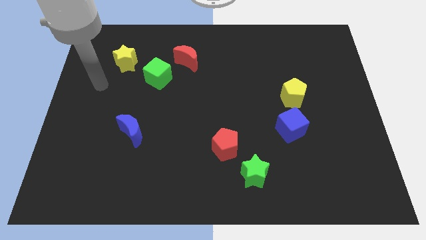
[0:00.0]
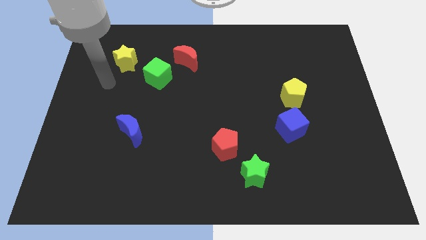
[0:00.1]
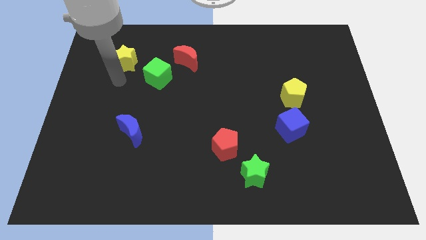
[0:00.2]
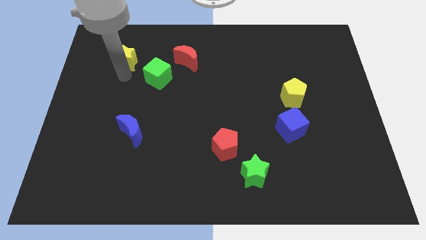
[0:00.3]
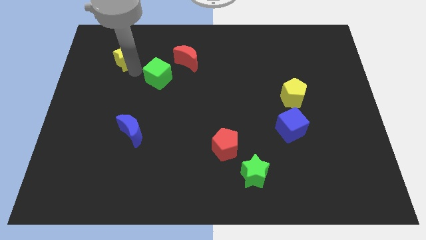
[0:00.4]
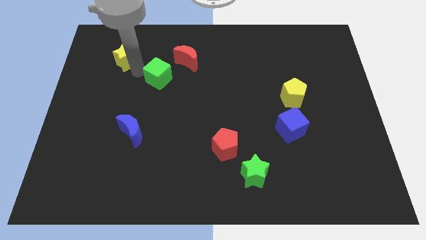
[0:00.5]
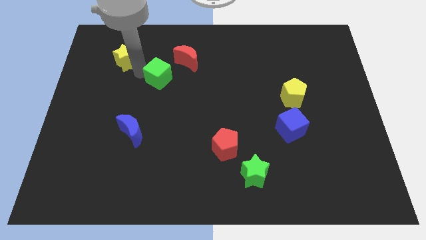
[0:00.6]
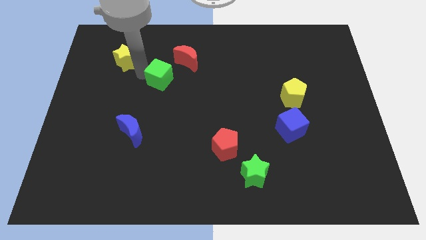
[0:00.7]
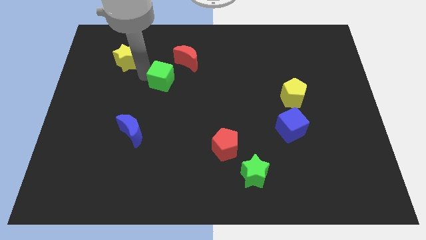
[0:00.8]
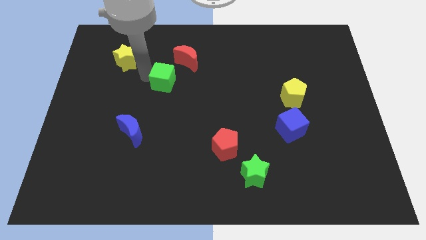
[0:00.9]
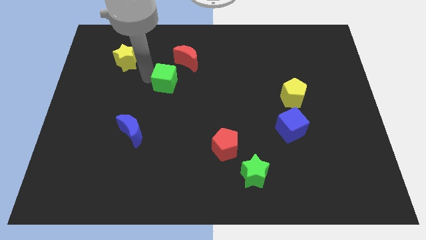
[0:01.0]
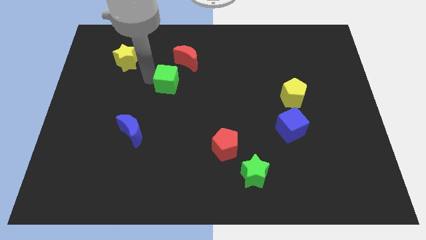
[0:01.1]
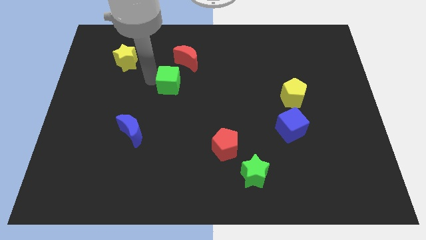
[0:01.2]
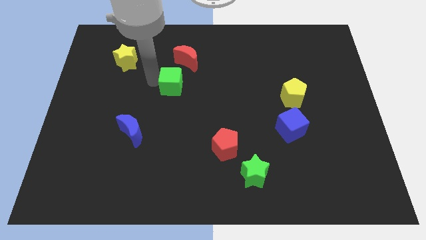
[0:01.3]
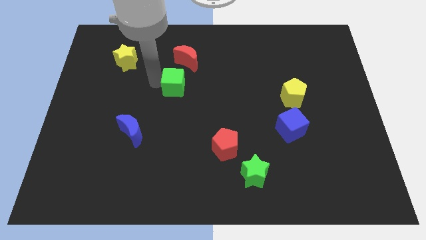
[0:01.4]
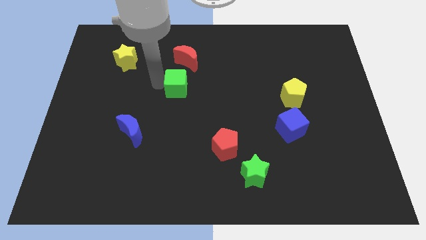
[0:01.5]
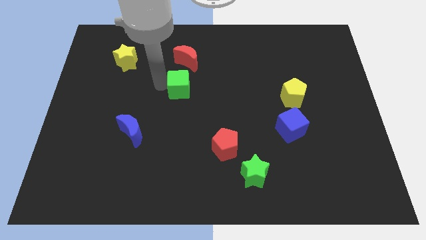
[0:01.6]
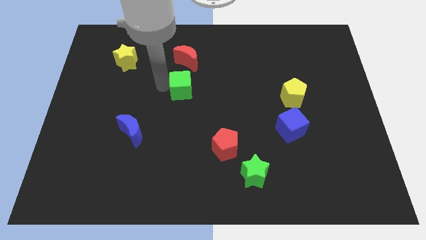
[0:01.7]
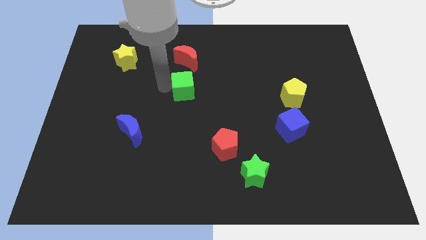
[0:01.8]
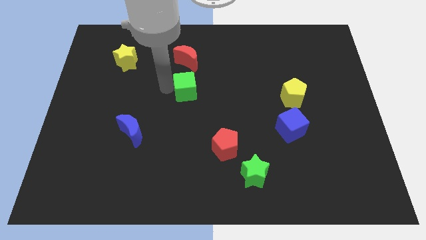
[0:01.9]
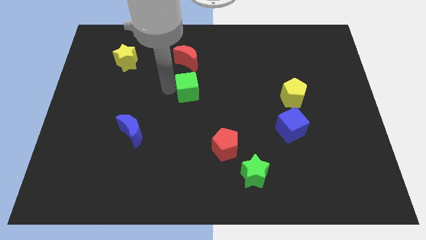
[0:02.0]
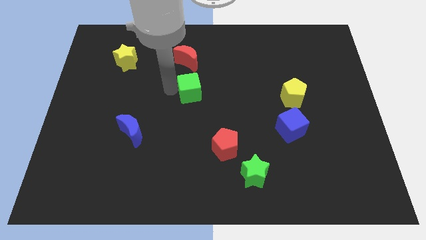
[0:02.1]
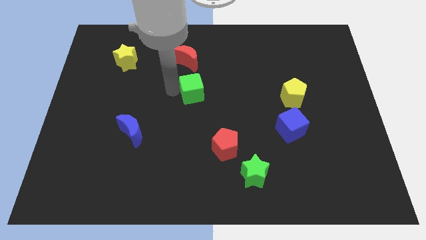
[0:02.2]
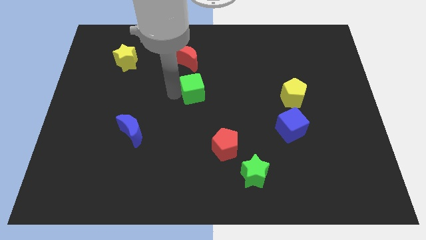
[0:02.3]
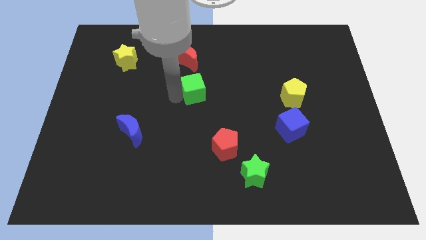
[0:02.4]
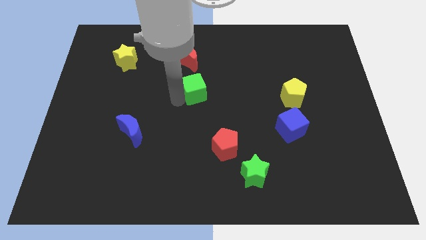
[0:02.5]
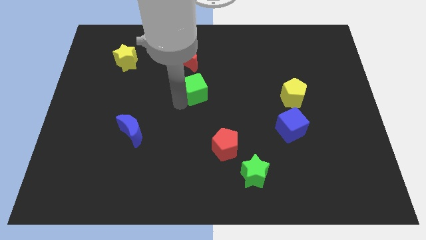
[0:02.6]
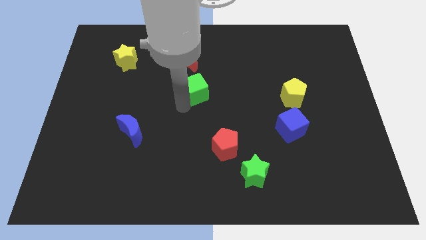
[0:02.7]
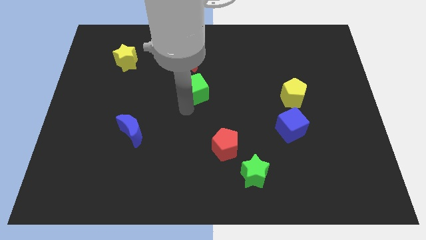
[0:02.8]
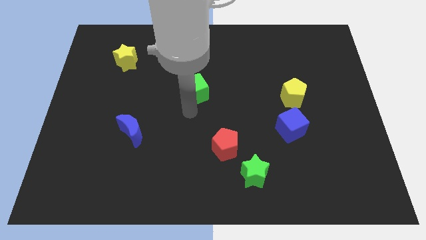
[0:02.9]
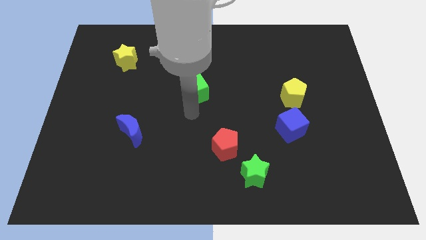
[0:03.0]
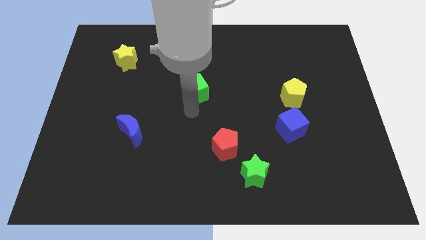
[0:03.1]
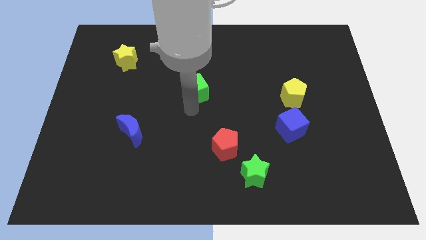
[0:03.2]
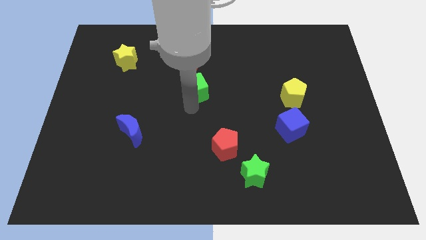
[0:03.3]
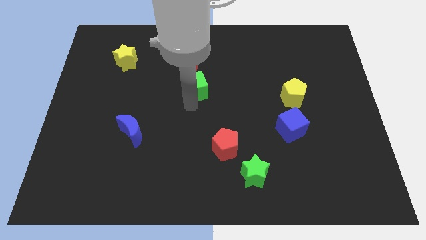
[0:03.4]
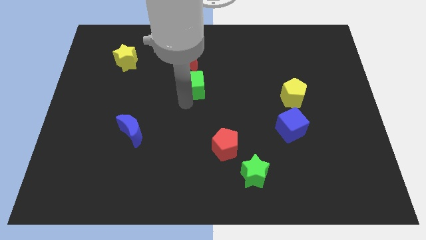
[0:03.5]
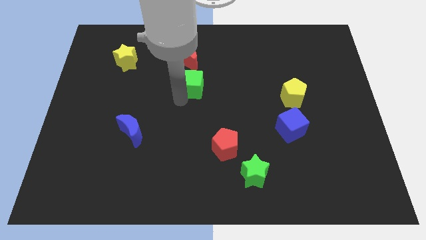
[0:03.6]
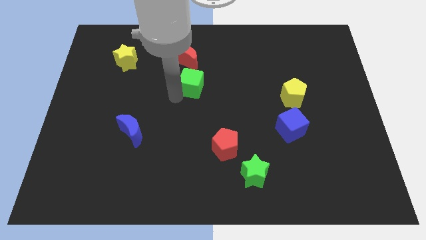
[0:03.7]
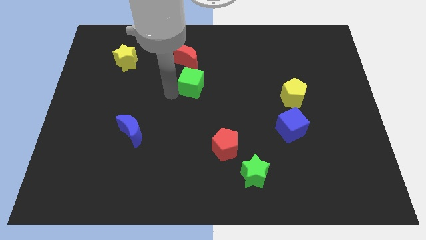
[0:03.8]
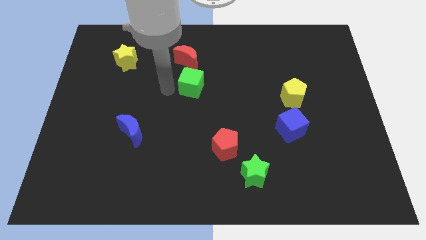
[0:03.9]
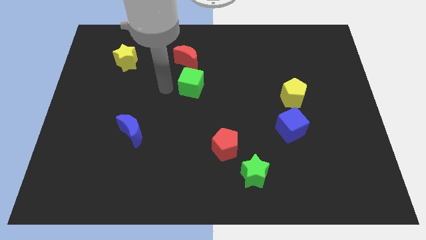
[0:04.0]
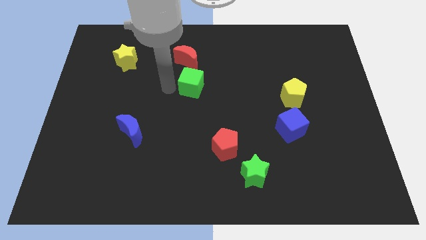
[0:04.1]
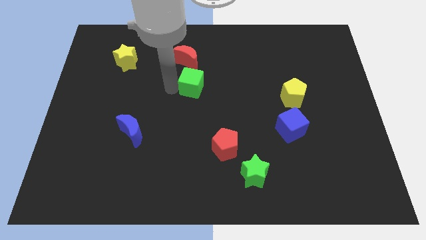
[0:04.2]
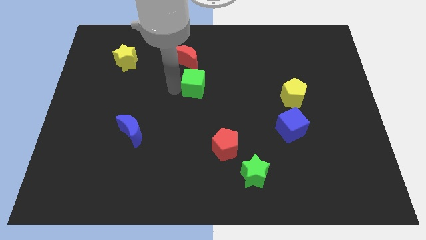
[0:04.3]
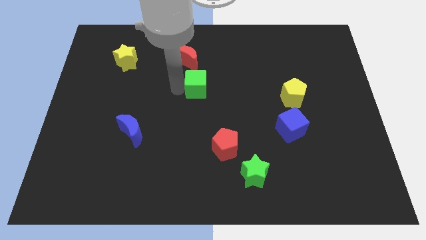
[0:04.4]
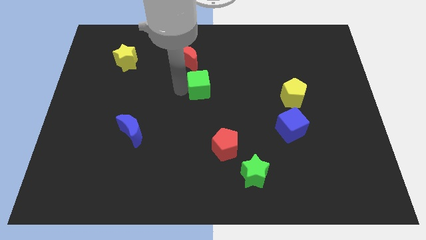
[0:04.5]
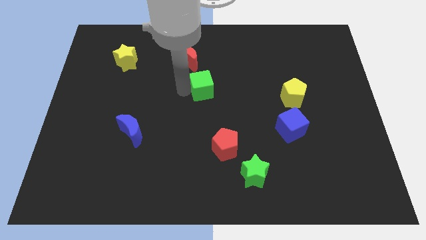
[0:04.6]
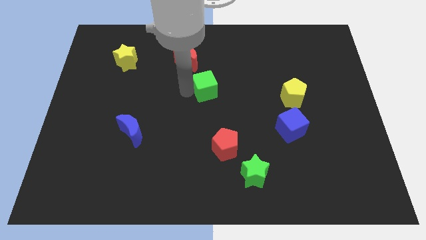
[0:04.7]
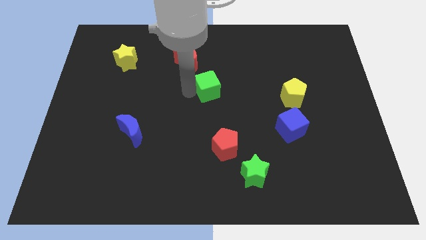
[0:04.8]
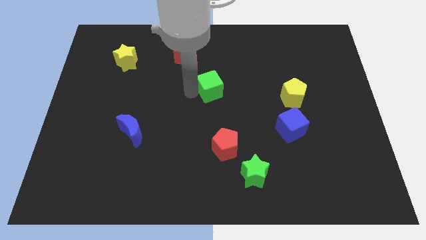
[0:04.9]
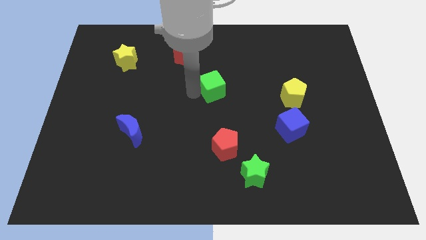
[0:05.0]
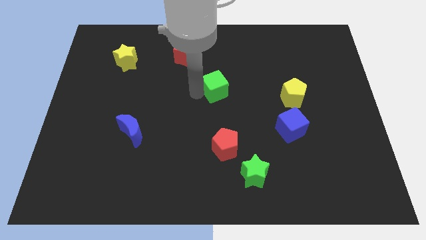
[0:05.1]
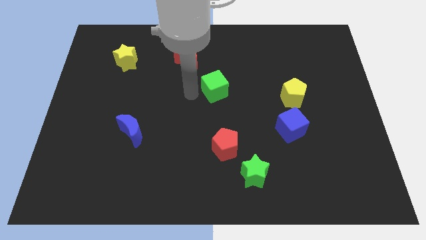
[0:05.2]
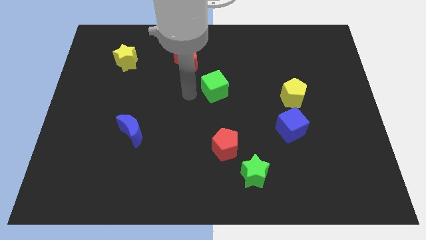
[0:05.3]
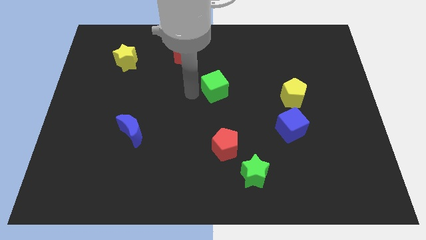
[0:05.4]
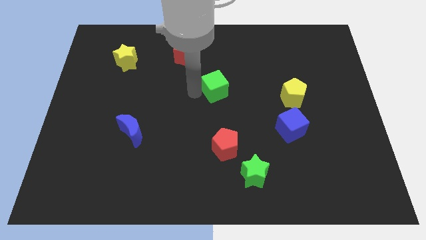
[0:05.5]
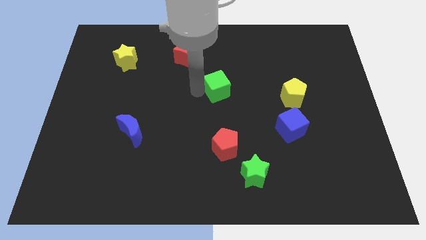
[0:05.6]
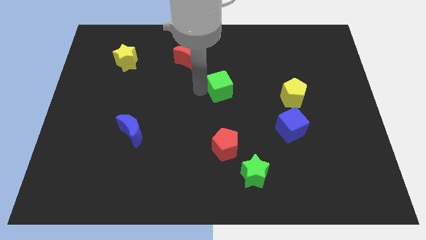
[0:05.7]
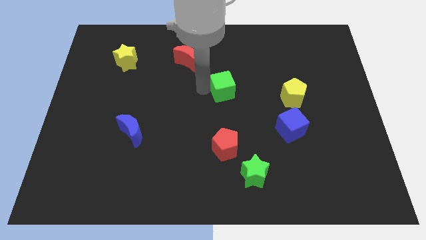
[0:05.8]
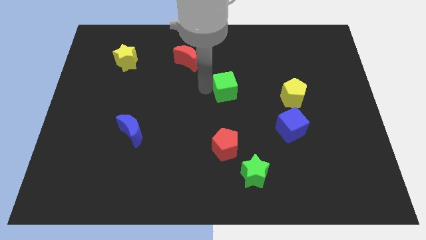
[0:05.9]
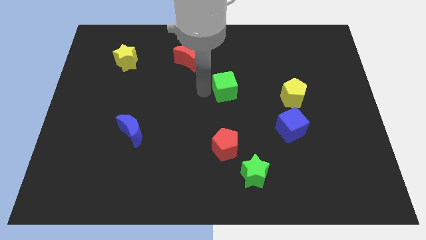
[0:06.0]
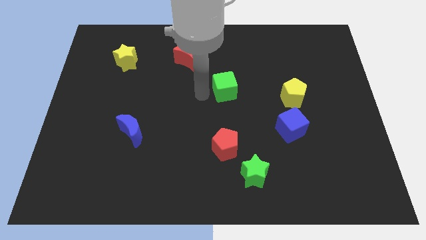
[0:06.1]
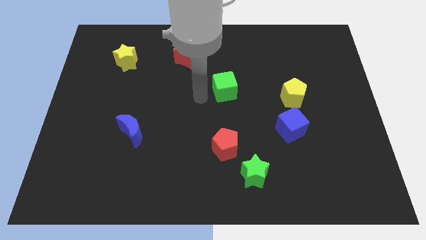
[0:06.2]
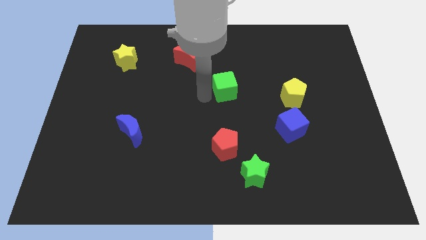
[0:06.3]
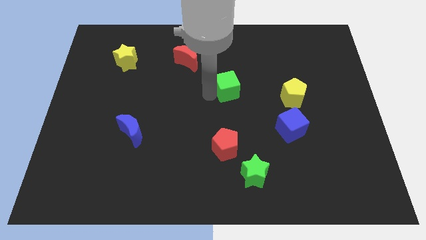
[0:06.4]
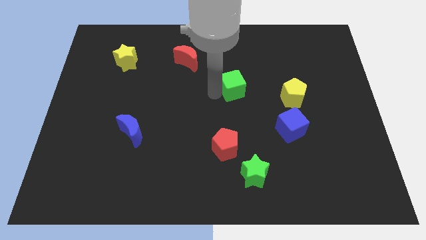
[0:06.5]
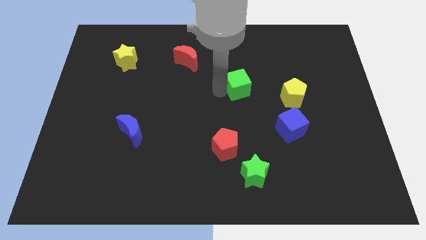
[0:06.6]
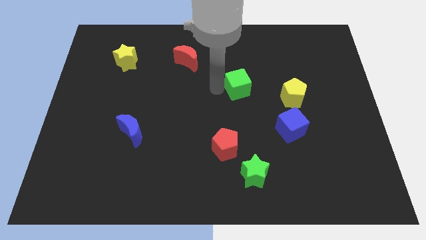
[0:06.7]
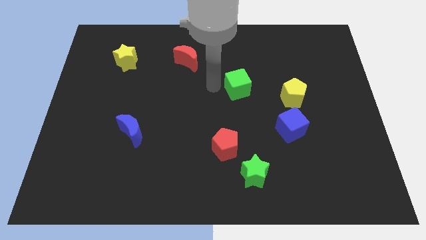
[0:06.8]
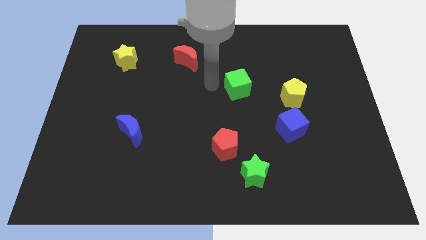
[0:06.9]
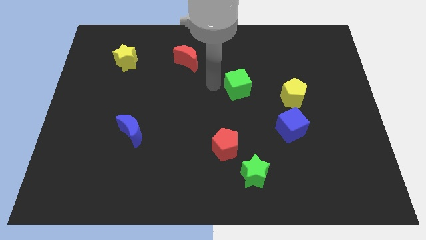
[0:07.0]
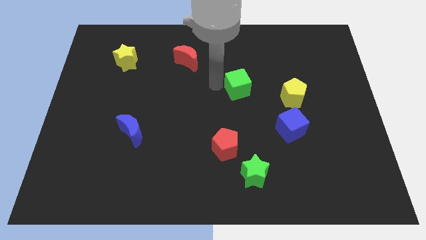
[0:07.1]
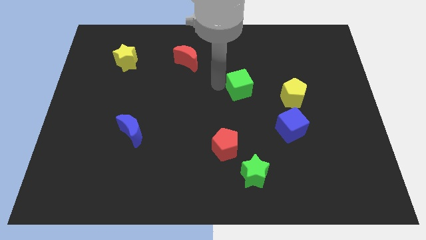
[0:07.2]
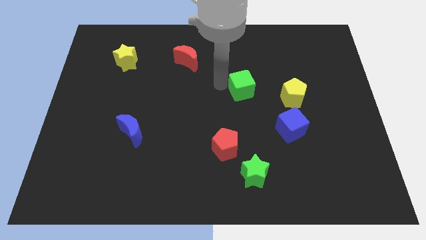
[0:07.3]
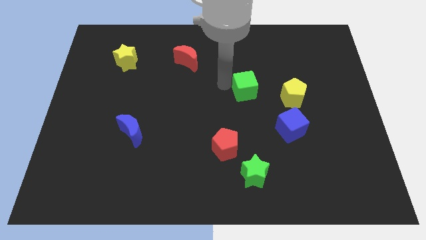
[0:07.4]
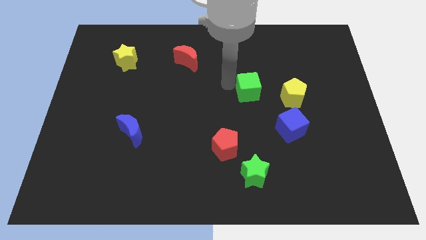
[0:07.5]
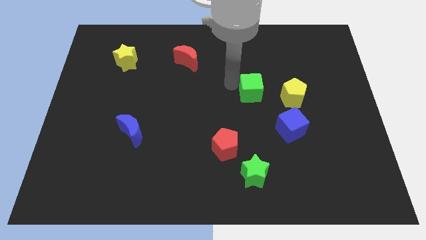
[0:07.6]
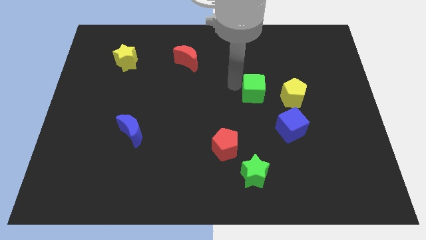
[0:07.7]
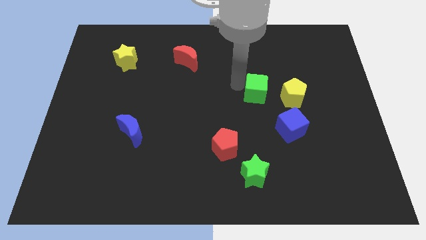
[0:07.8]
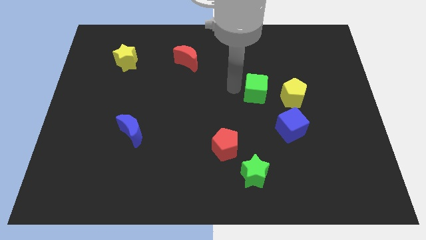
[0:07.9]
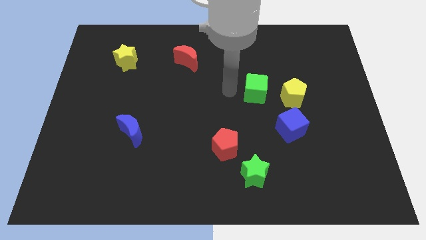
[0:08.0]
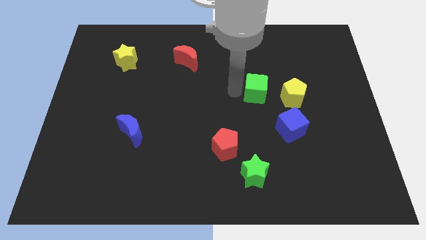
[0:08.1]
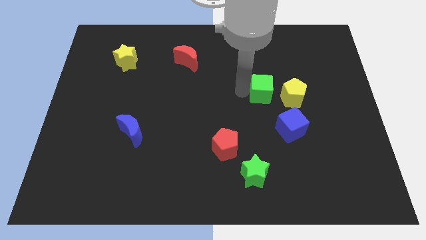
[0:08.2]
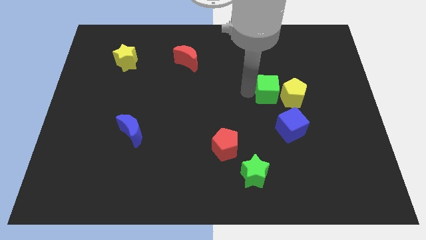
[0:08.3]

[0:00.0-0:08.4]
push the green cube to the yellow pentagon
